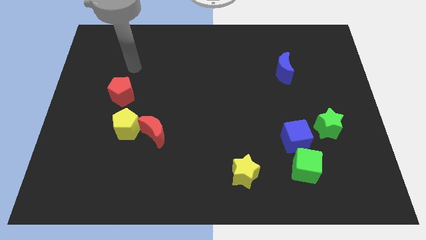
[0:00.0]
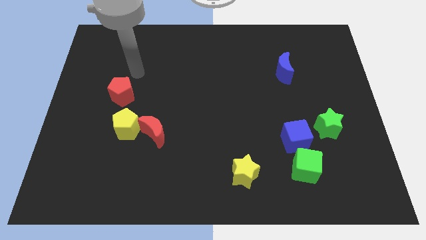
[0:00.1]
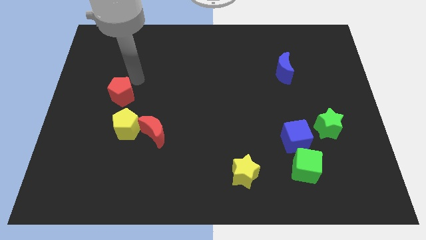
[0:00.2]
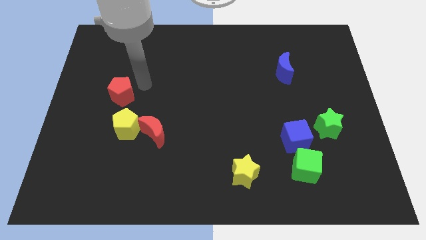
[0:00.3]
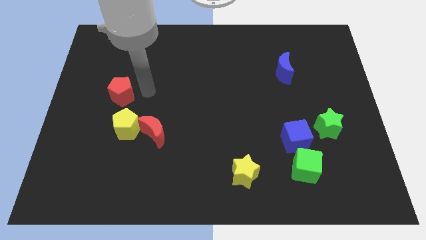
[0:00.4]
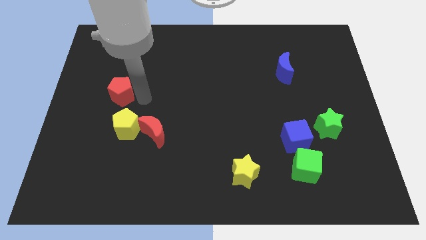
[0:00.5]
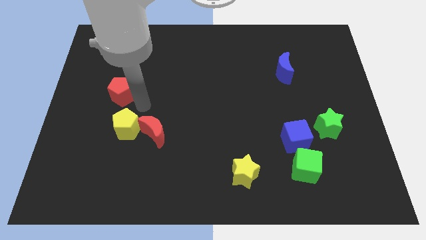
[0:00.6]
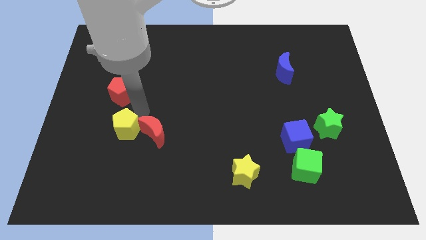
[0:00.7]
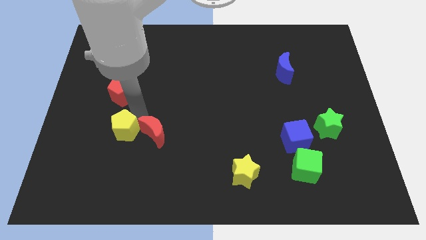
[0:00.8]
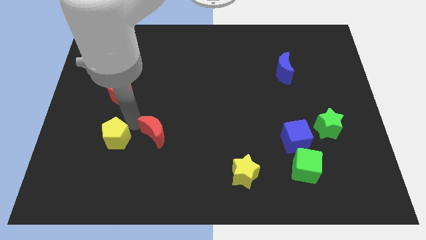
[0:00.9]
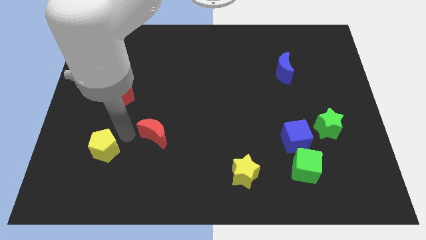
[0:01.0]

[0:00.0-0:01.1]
pull the red moon apart from the yellow pentagon

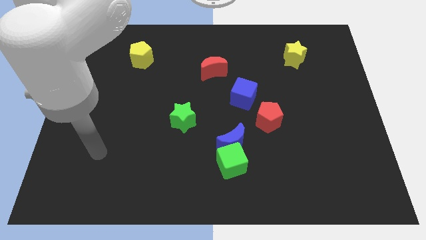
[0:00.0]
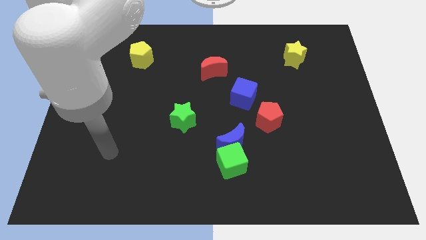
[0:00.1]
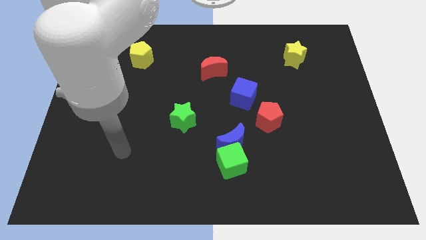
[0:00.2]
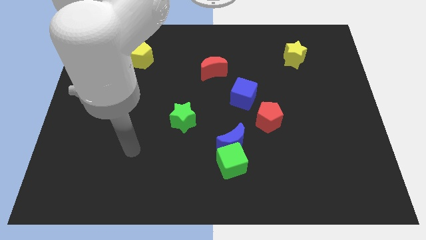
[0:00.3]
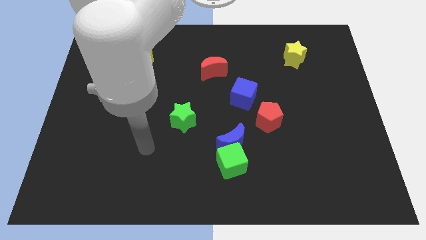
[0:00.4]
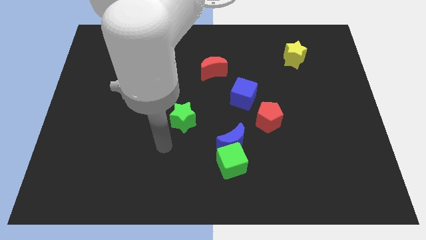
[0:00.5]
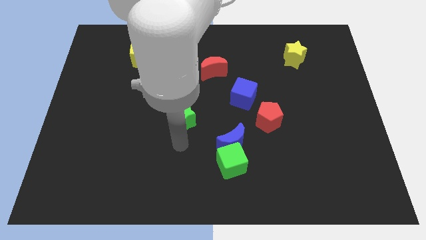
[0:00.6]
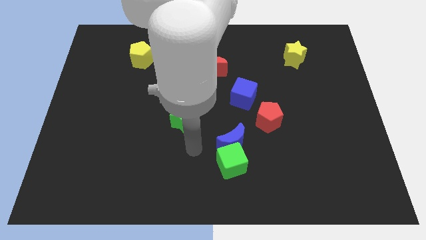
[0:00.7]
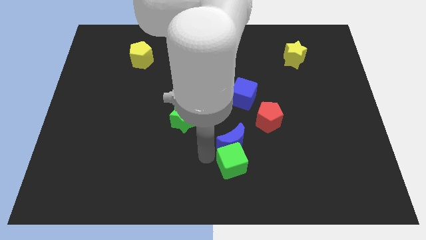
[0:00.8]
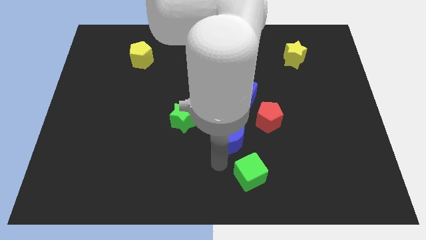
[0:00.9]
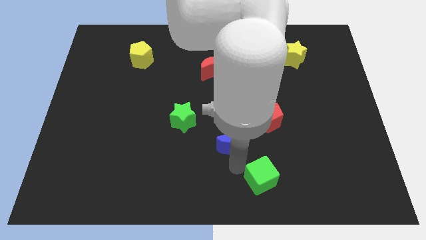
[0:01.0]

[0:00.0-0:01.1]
move the blue moon away from the green cube

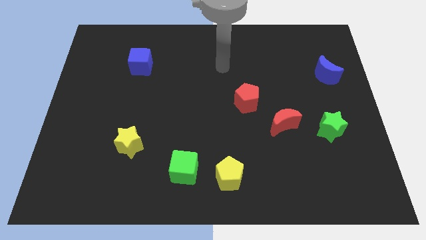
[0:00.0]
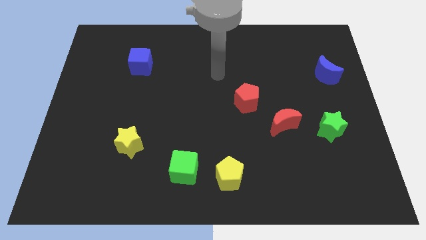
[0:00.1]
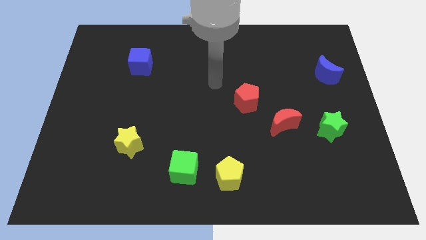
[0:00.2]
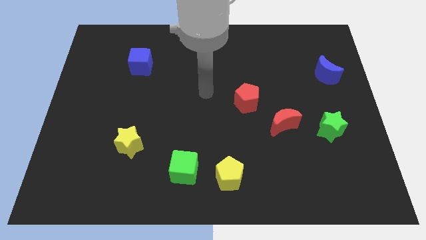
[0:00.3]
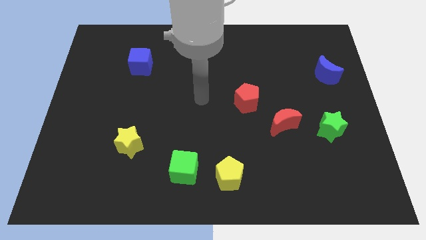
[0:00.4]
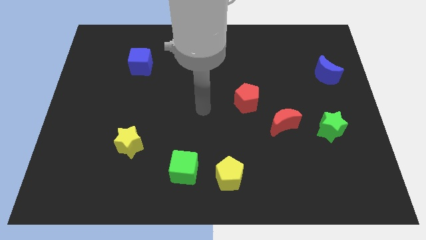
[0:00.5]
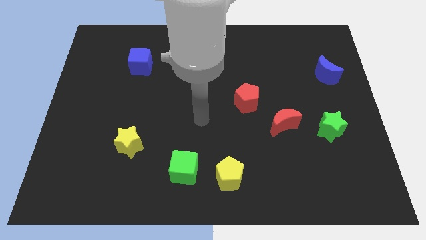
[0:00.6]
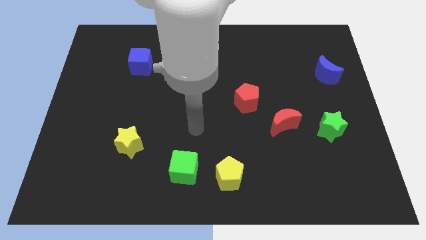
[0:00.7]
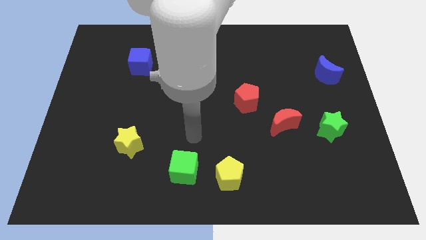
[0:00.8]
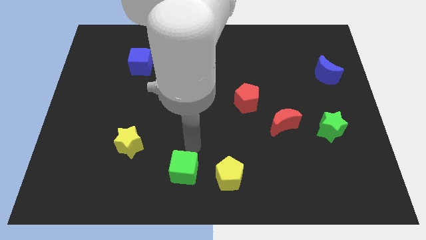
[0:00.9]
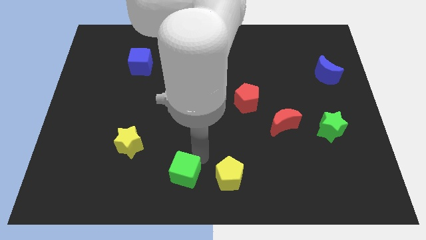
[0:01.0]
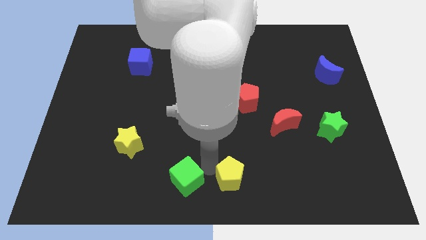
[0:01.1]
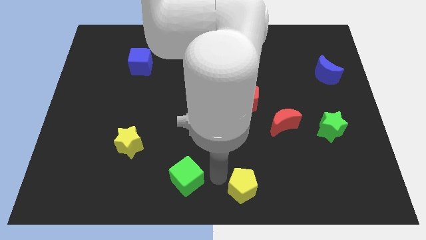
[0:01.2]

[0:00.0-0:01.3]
separate the green cube from the yellow pentagon

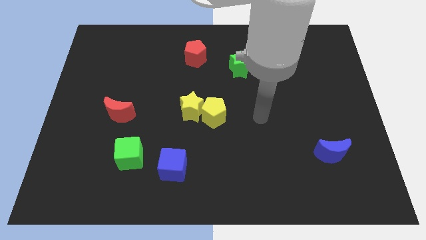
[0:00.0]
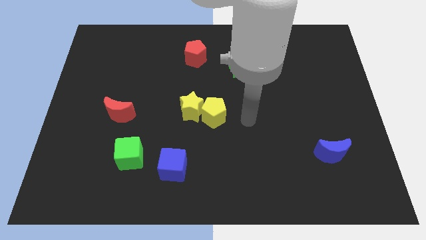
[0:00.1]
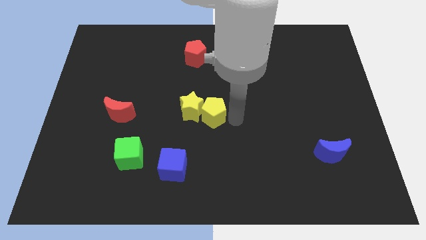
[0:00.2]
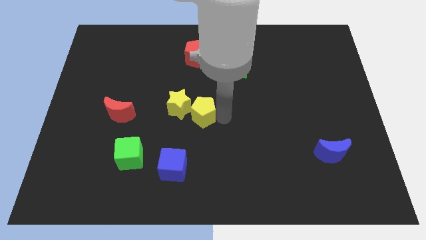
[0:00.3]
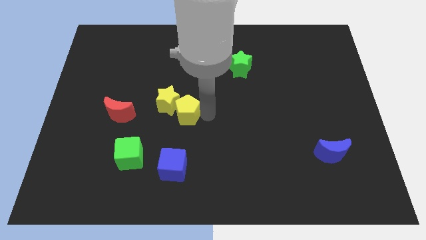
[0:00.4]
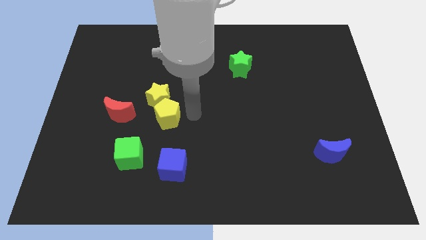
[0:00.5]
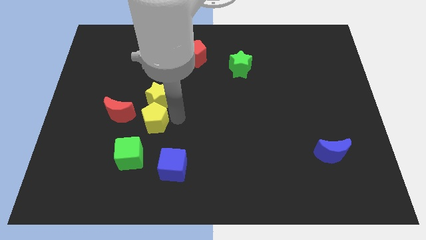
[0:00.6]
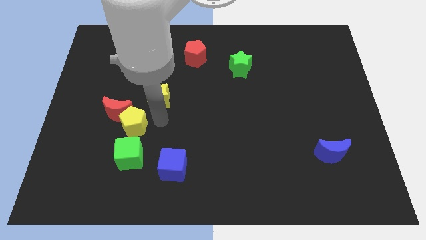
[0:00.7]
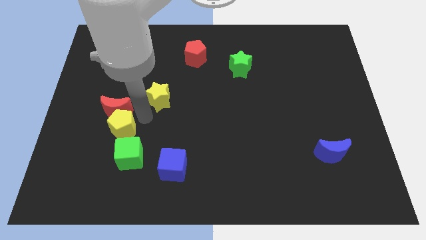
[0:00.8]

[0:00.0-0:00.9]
separate the yellow star from the yellow pentagon

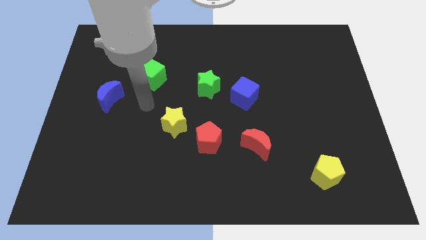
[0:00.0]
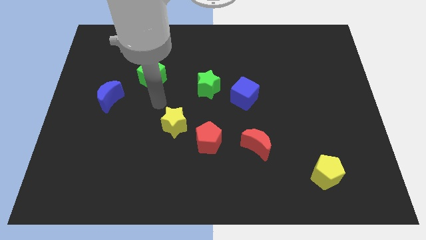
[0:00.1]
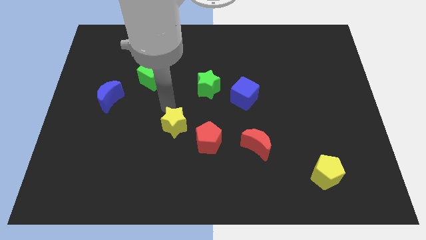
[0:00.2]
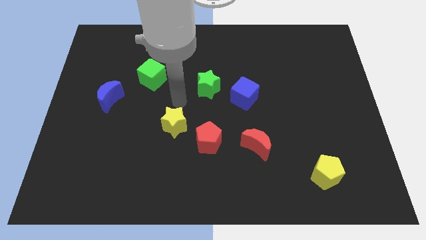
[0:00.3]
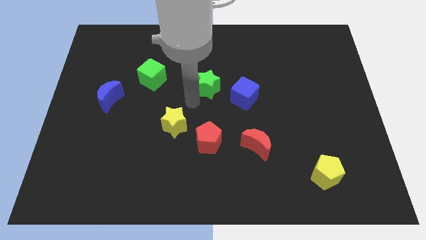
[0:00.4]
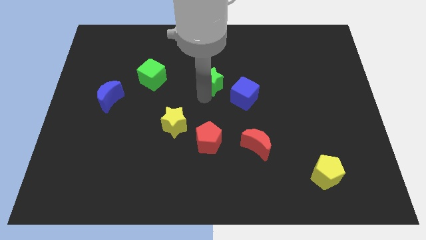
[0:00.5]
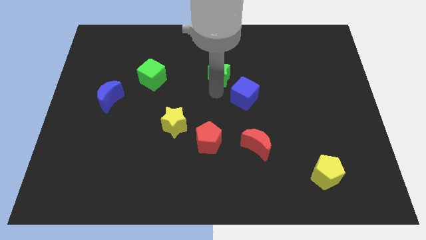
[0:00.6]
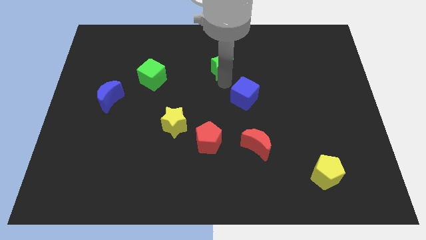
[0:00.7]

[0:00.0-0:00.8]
move the blue cube away from the green star

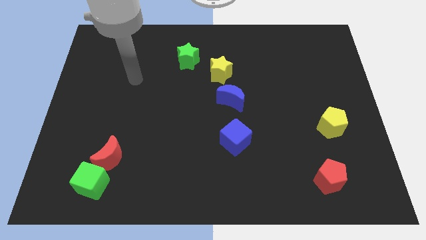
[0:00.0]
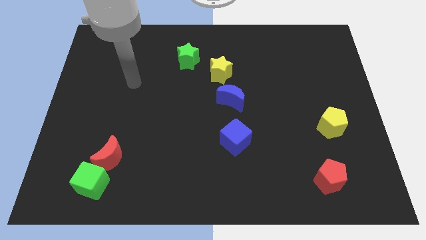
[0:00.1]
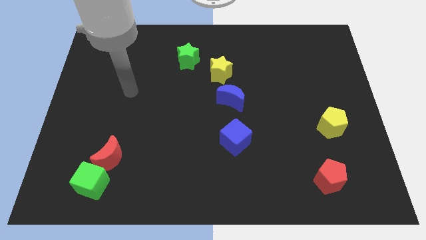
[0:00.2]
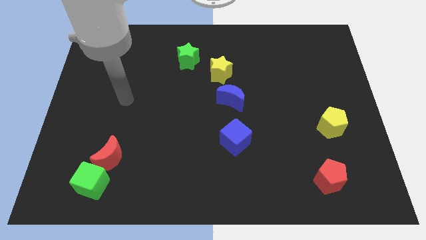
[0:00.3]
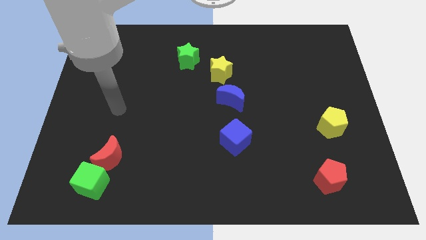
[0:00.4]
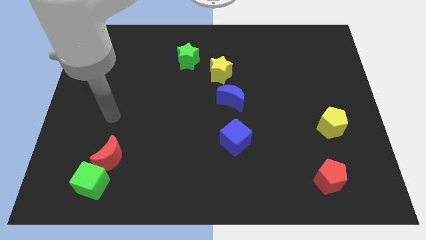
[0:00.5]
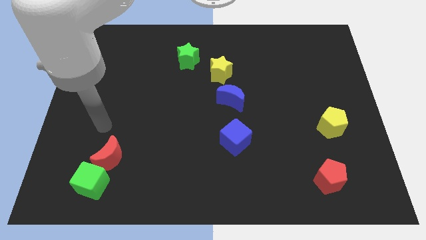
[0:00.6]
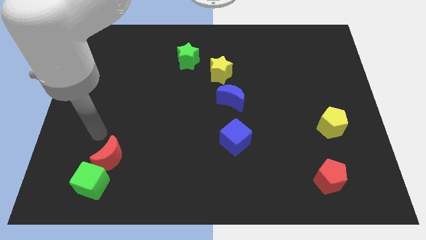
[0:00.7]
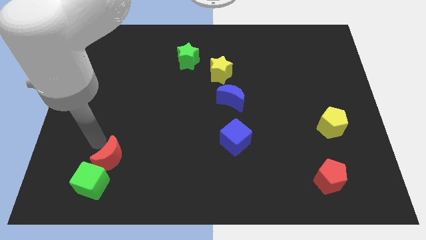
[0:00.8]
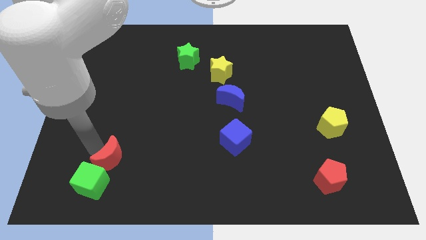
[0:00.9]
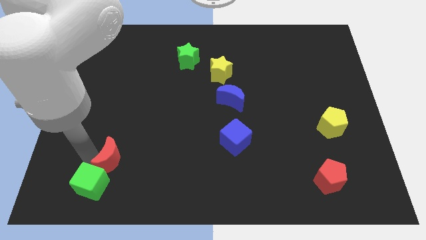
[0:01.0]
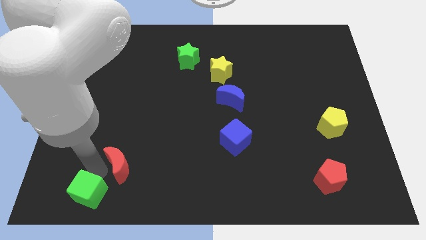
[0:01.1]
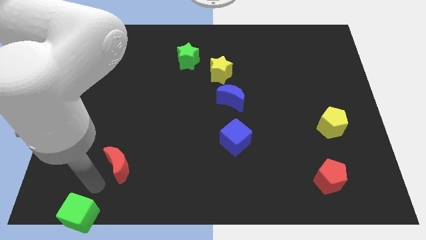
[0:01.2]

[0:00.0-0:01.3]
move the red moon away from the green cube

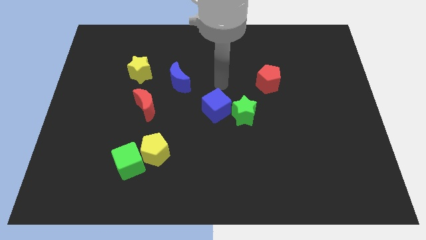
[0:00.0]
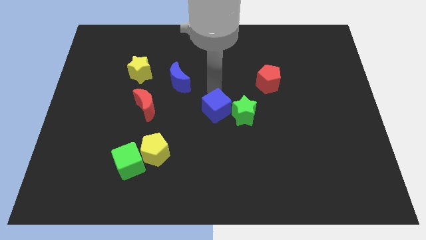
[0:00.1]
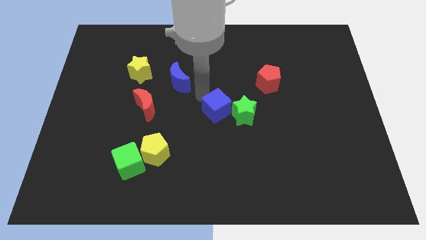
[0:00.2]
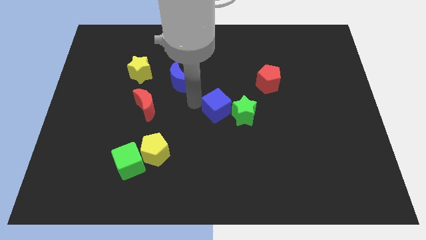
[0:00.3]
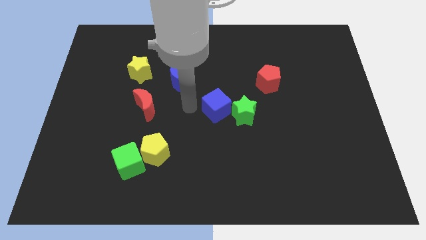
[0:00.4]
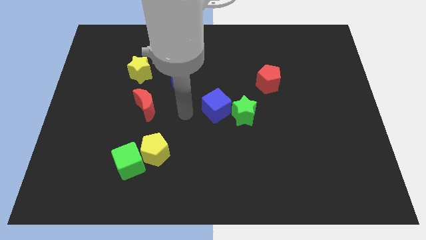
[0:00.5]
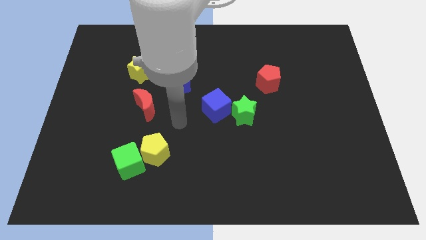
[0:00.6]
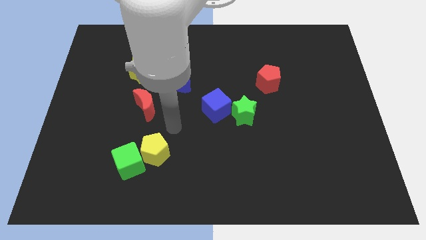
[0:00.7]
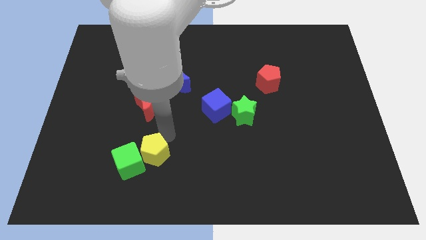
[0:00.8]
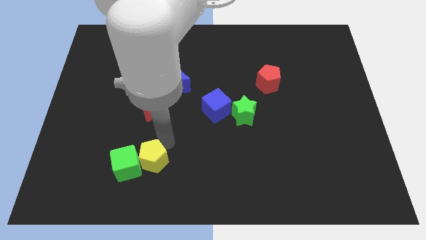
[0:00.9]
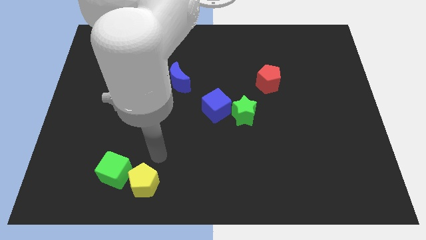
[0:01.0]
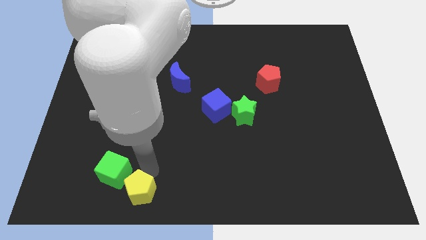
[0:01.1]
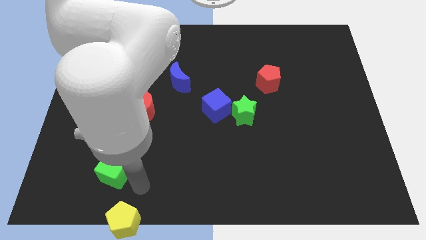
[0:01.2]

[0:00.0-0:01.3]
move the green cube away from the yellow pentagon

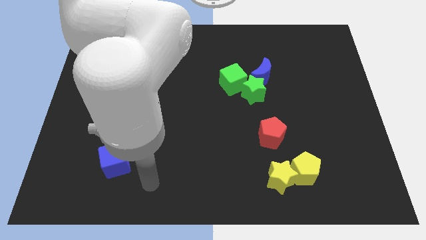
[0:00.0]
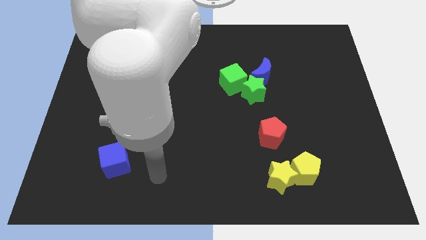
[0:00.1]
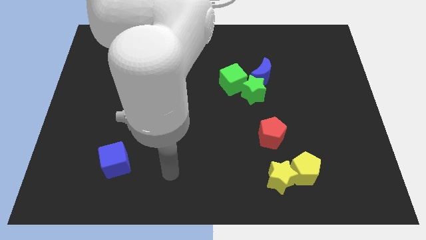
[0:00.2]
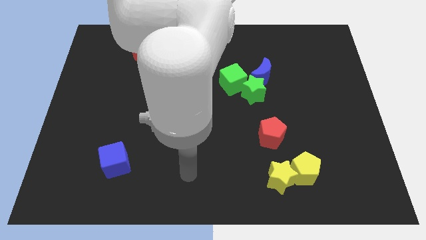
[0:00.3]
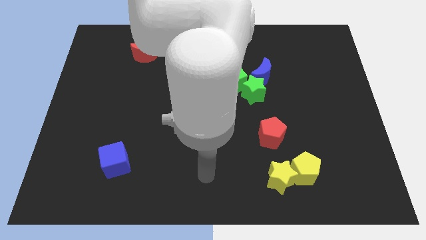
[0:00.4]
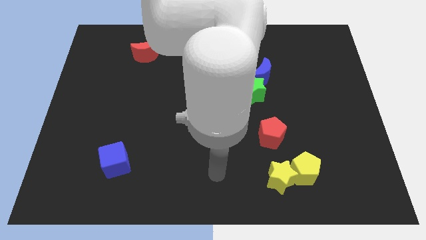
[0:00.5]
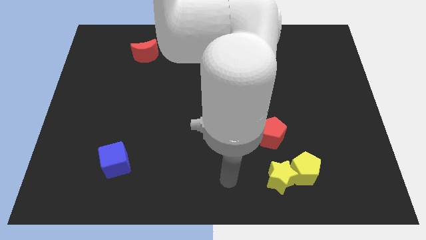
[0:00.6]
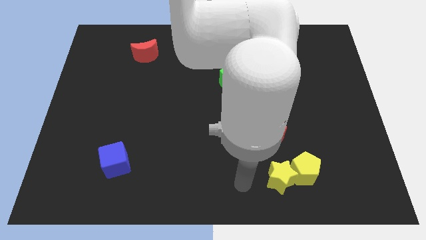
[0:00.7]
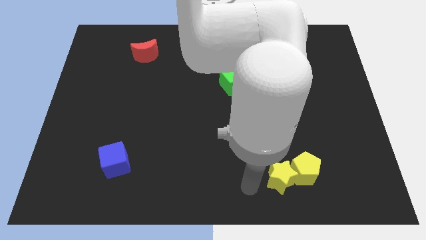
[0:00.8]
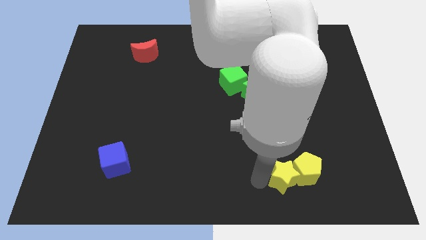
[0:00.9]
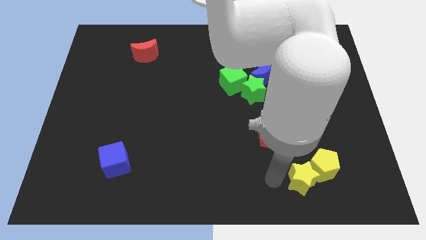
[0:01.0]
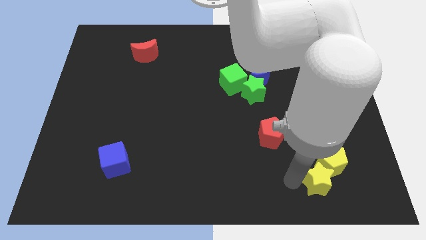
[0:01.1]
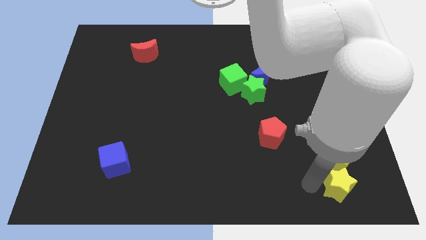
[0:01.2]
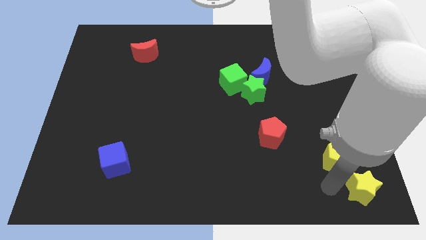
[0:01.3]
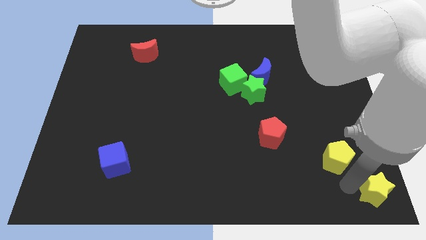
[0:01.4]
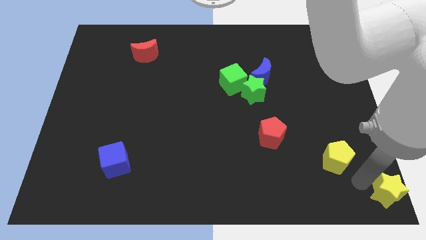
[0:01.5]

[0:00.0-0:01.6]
separate the yellow pentagon from the yellow star
